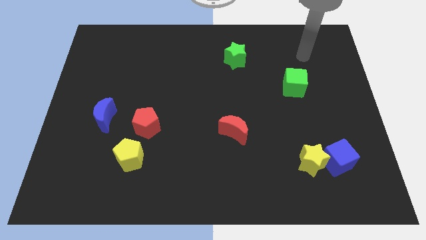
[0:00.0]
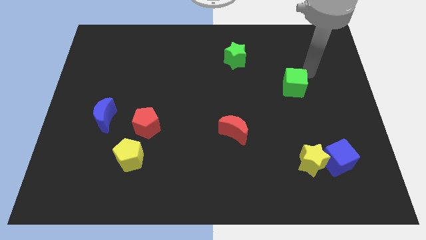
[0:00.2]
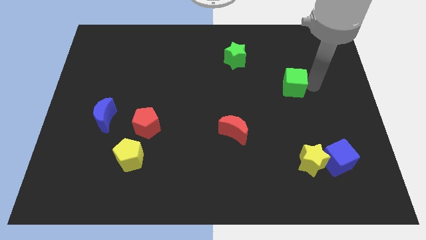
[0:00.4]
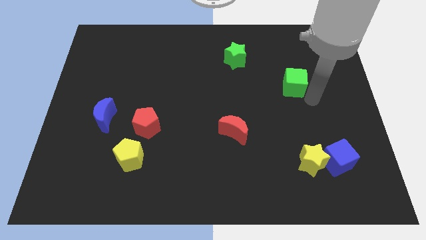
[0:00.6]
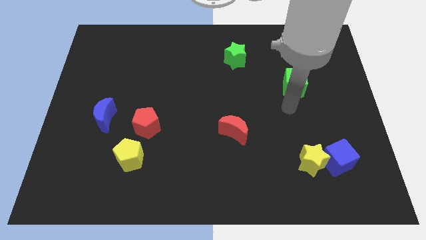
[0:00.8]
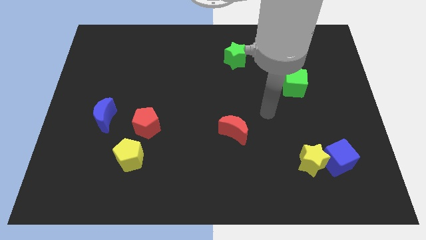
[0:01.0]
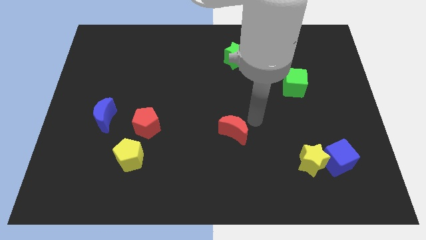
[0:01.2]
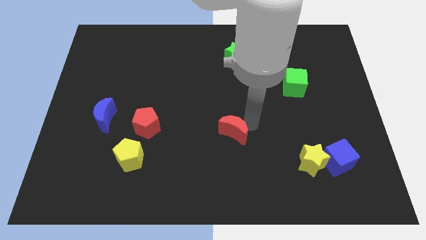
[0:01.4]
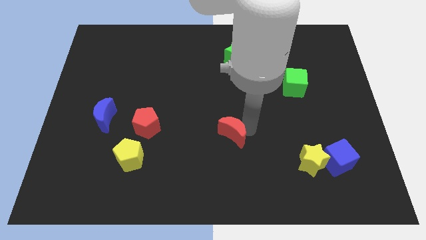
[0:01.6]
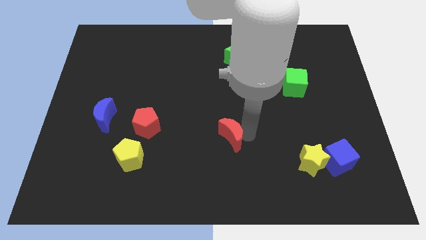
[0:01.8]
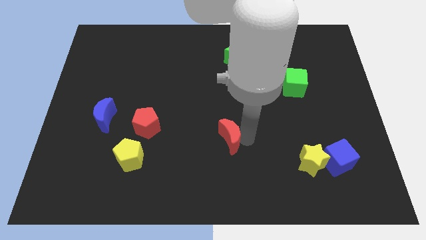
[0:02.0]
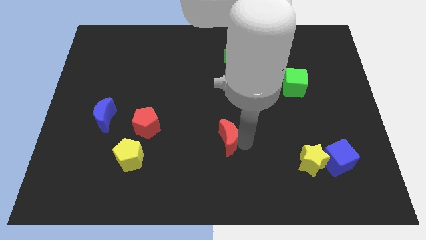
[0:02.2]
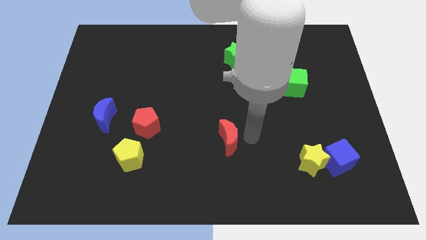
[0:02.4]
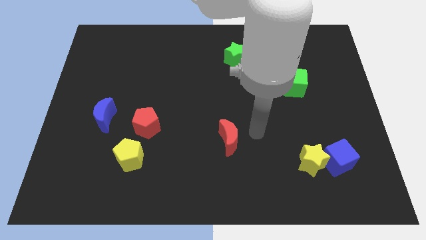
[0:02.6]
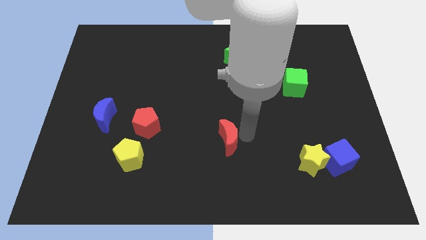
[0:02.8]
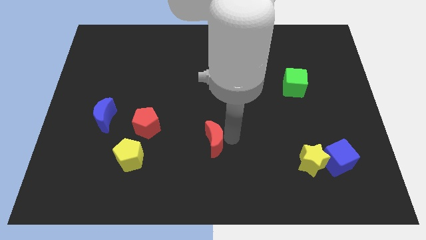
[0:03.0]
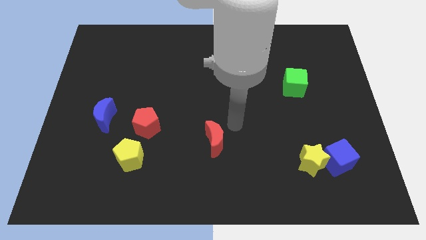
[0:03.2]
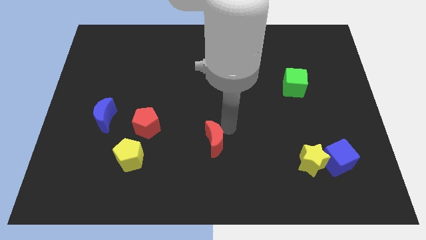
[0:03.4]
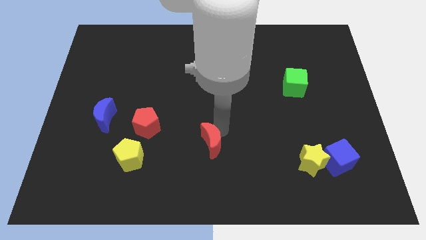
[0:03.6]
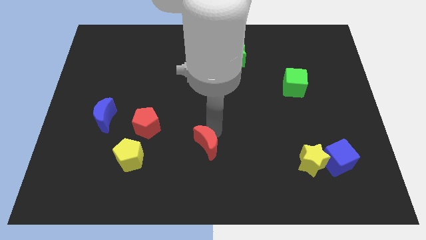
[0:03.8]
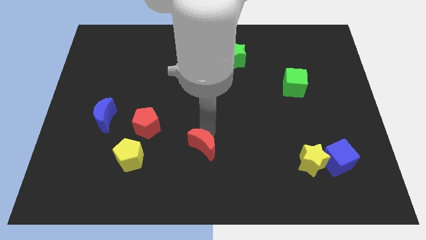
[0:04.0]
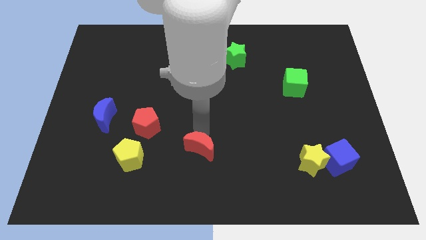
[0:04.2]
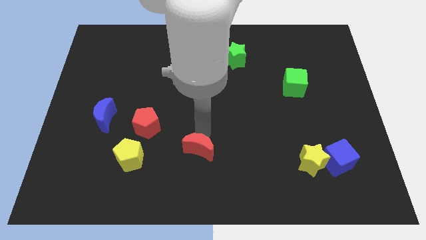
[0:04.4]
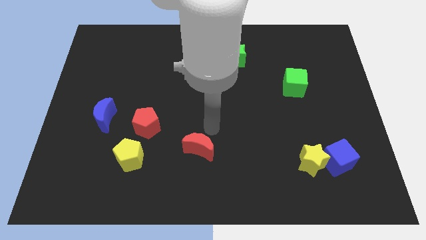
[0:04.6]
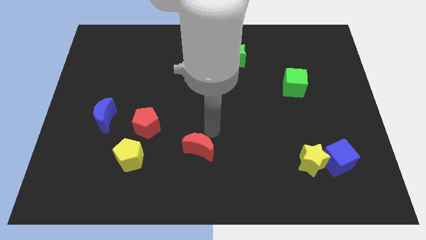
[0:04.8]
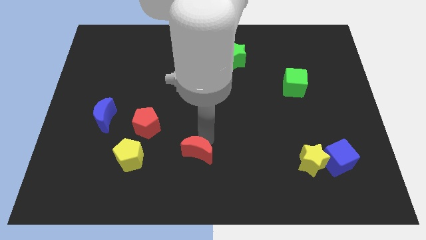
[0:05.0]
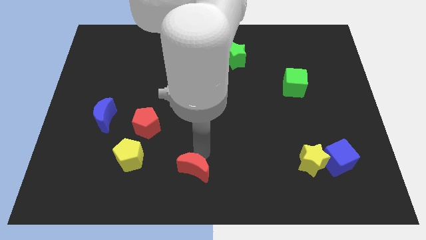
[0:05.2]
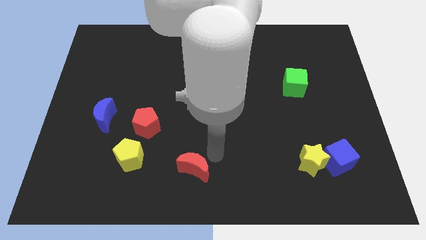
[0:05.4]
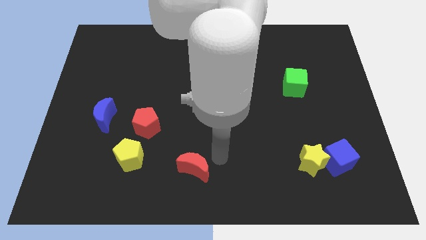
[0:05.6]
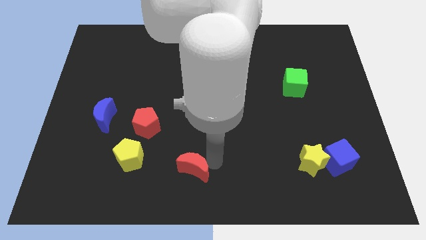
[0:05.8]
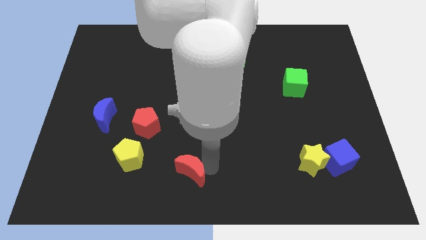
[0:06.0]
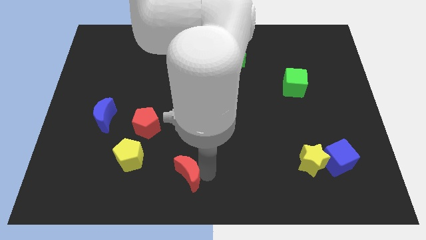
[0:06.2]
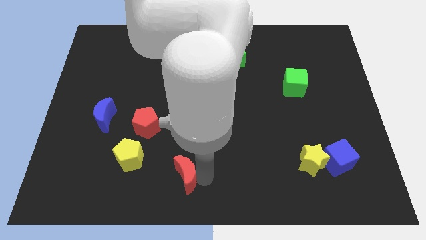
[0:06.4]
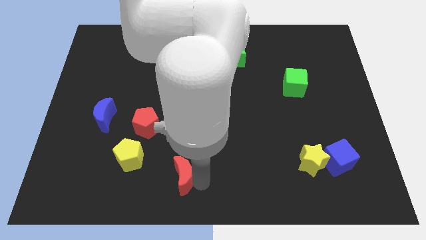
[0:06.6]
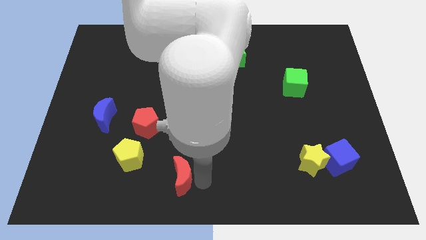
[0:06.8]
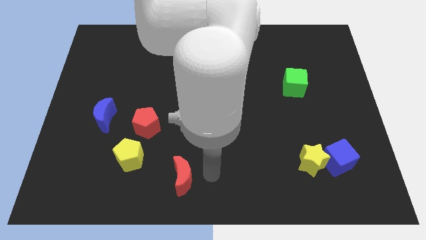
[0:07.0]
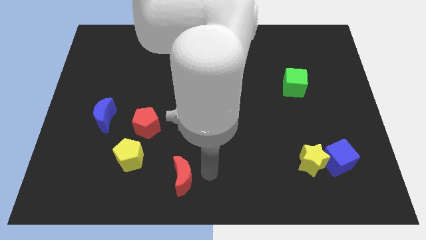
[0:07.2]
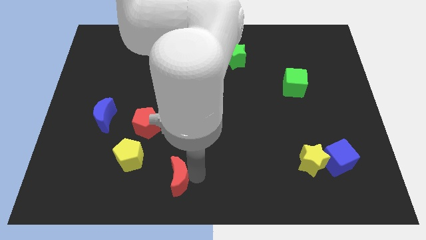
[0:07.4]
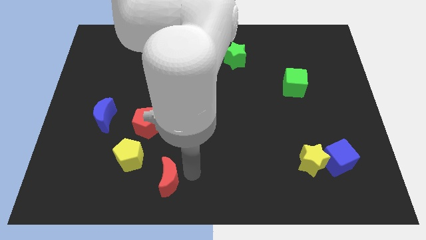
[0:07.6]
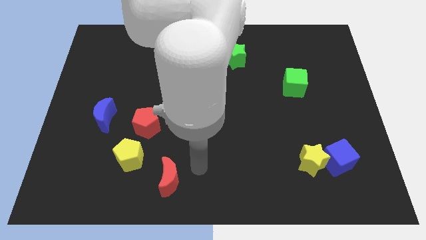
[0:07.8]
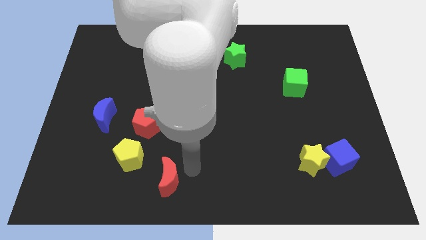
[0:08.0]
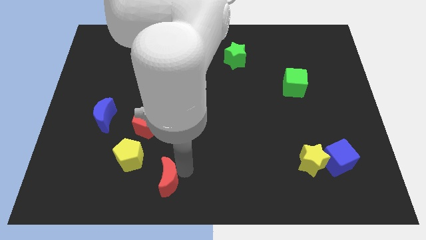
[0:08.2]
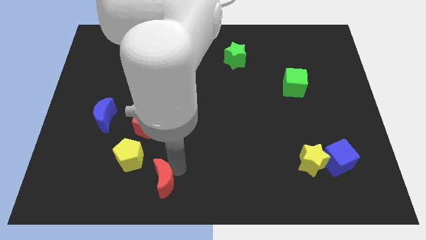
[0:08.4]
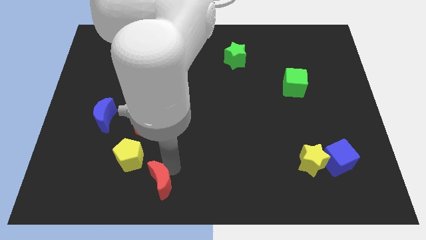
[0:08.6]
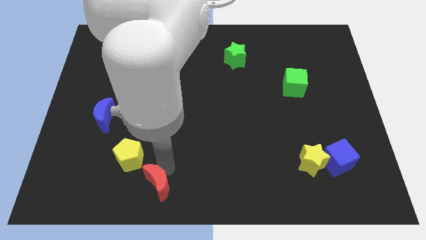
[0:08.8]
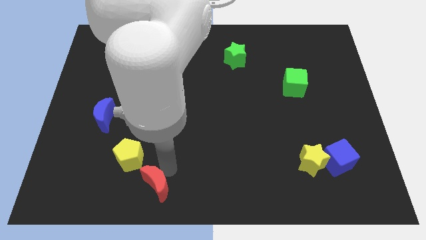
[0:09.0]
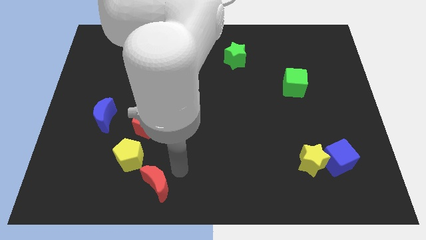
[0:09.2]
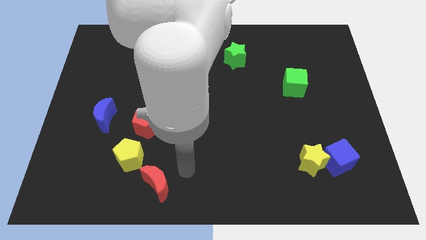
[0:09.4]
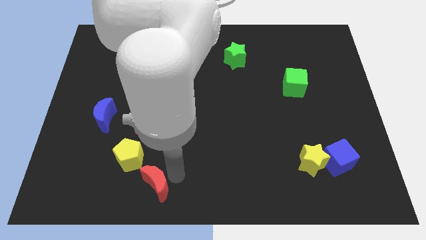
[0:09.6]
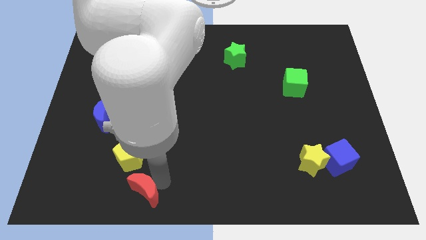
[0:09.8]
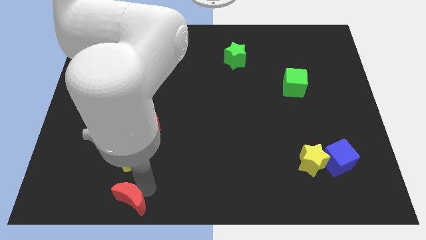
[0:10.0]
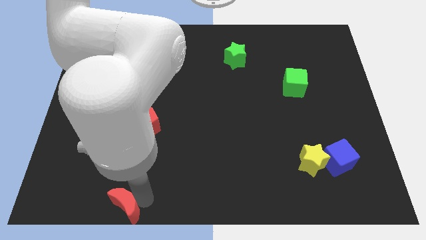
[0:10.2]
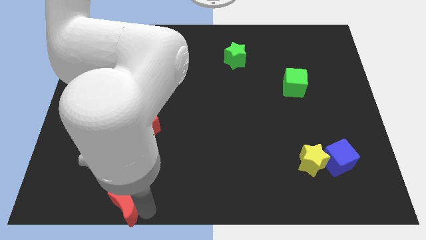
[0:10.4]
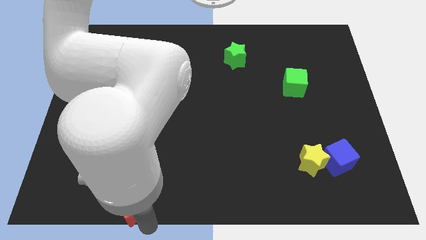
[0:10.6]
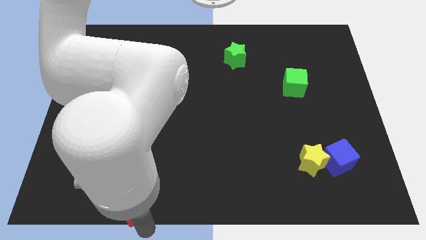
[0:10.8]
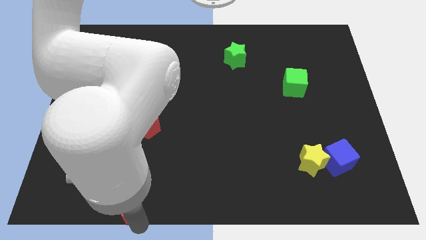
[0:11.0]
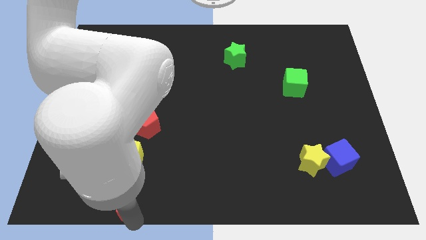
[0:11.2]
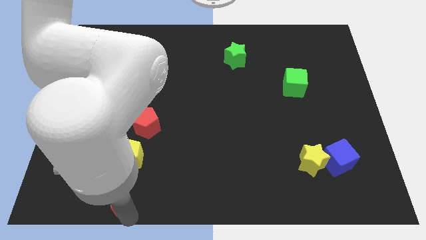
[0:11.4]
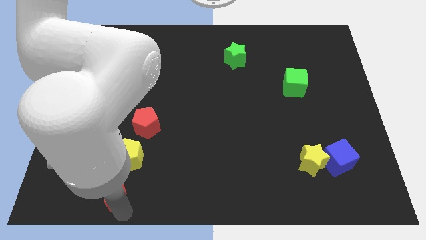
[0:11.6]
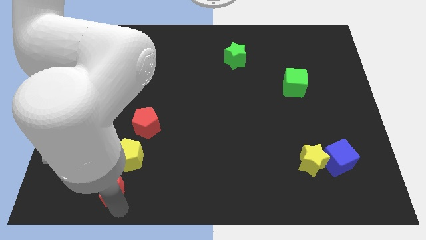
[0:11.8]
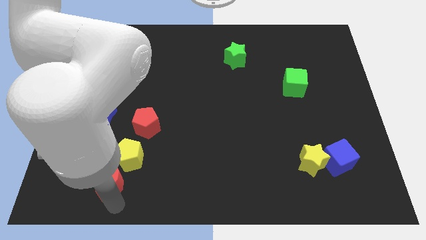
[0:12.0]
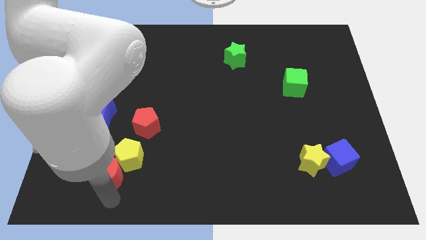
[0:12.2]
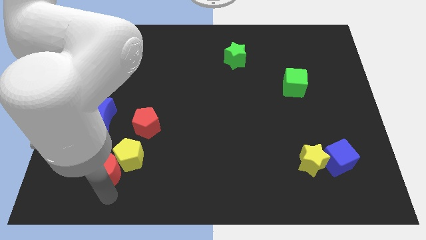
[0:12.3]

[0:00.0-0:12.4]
put the red moon left of the yellow pentagon

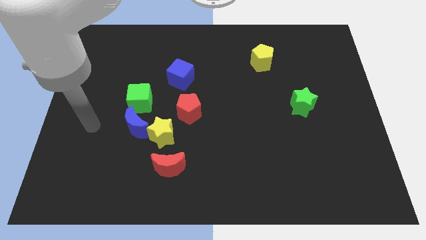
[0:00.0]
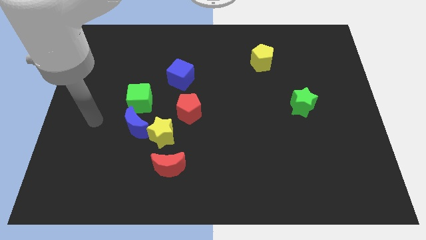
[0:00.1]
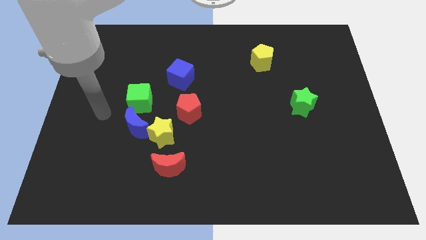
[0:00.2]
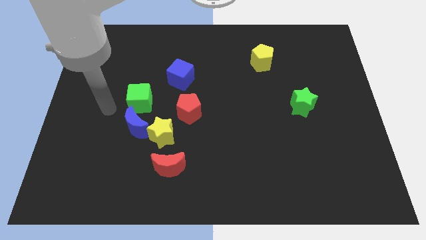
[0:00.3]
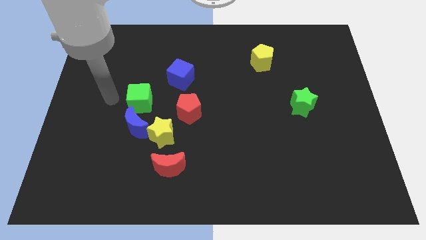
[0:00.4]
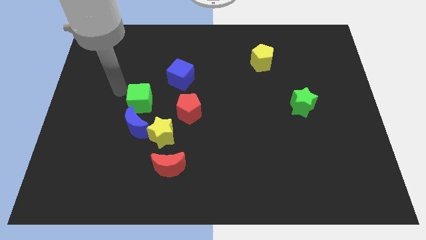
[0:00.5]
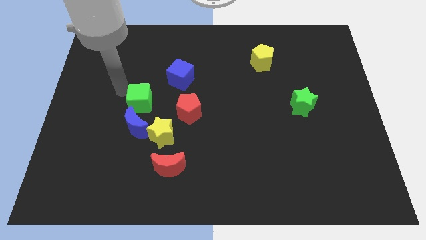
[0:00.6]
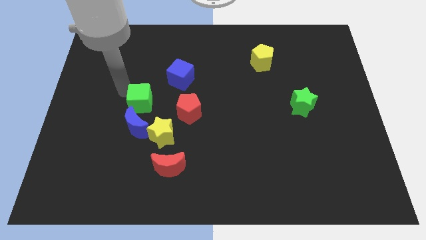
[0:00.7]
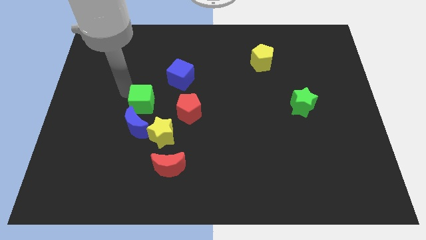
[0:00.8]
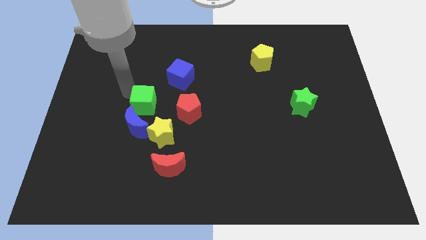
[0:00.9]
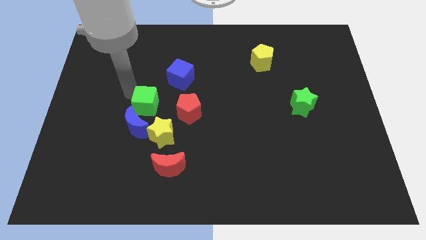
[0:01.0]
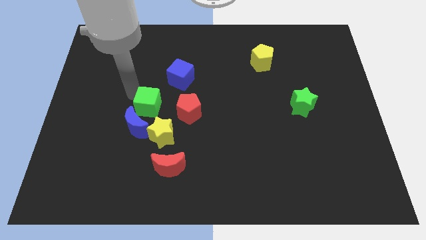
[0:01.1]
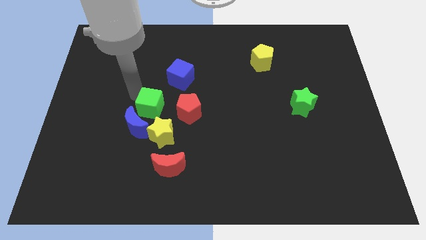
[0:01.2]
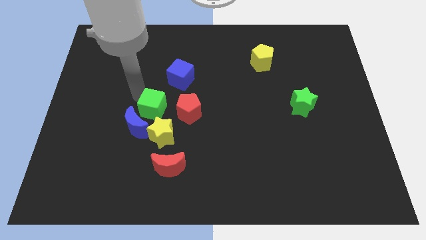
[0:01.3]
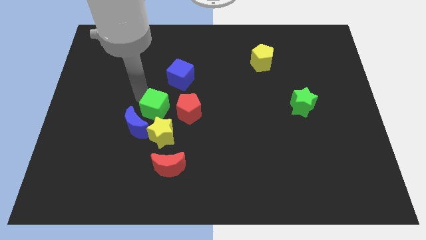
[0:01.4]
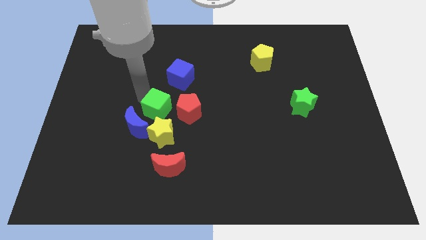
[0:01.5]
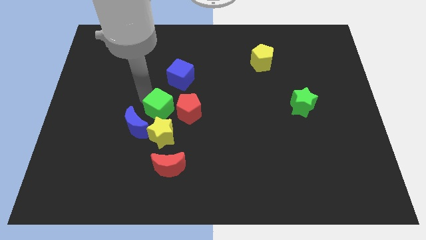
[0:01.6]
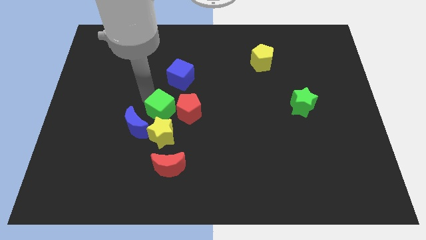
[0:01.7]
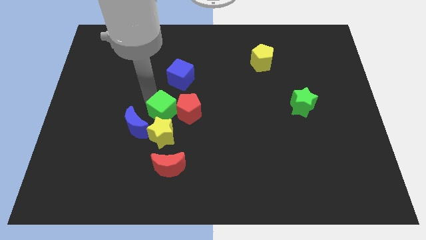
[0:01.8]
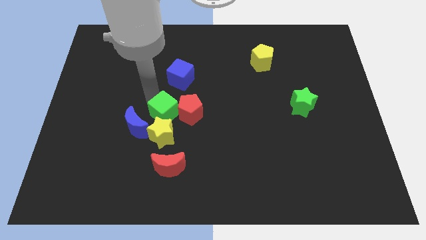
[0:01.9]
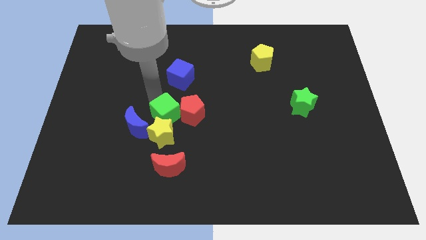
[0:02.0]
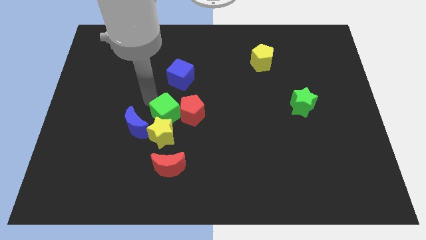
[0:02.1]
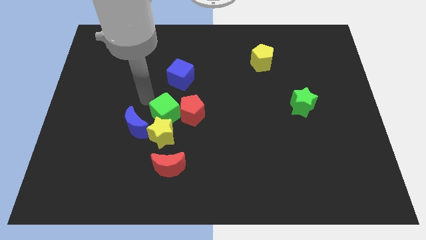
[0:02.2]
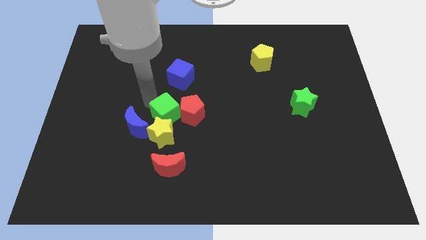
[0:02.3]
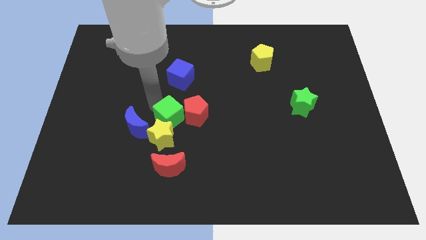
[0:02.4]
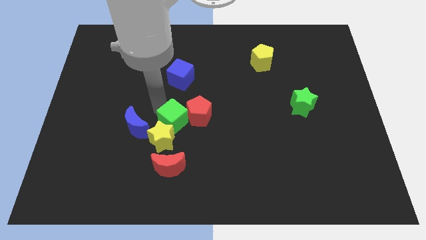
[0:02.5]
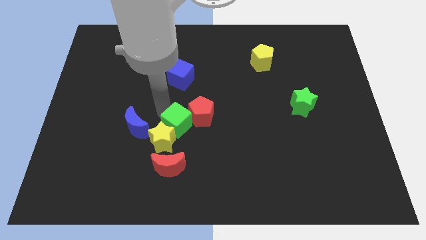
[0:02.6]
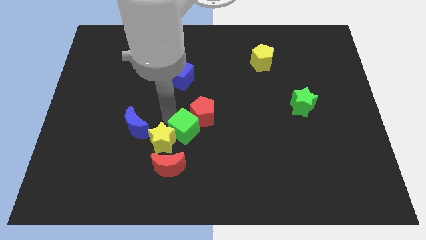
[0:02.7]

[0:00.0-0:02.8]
move the green cube to the right of the yellow star
